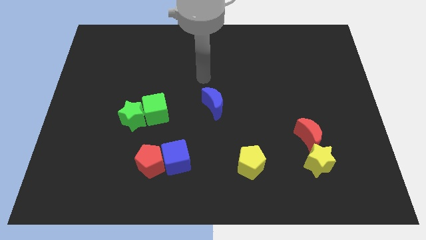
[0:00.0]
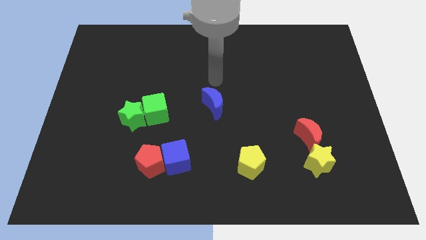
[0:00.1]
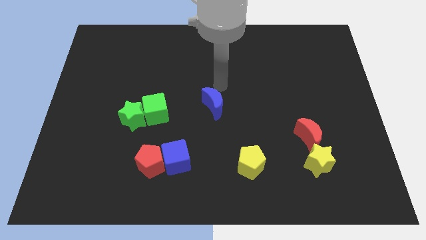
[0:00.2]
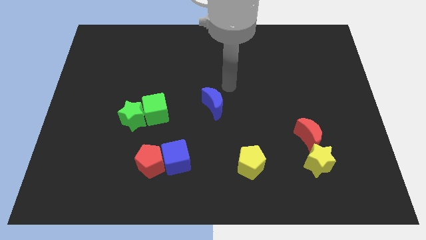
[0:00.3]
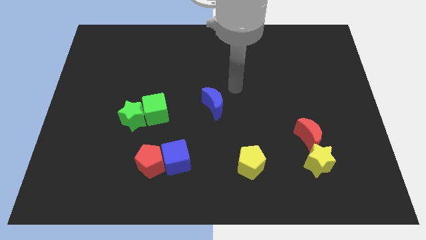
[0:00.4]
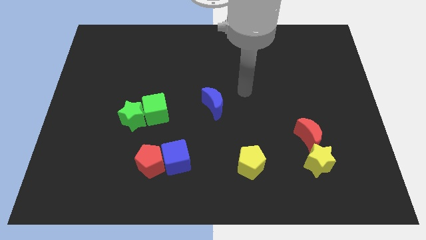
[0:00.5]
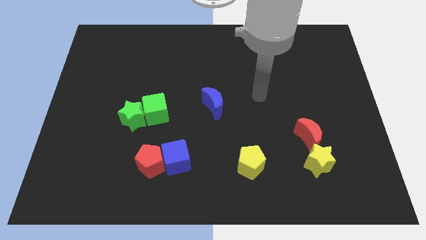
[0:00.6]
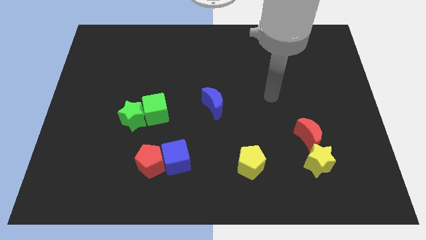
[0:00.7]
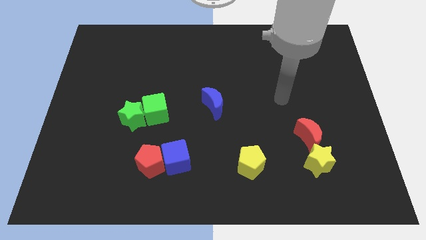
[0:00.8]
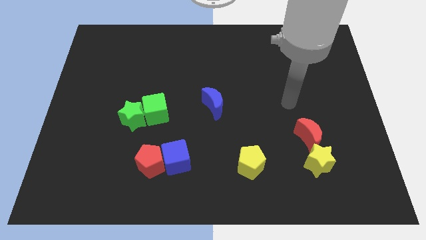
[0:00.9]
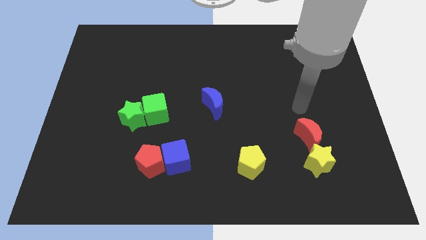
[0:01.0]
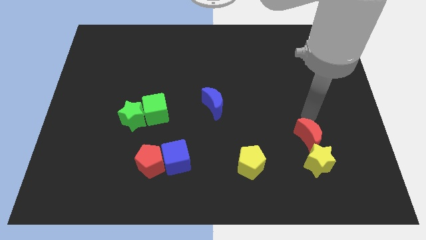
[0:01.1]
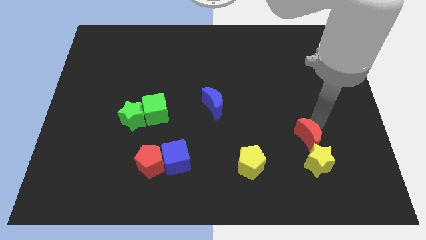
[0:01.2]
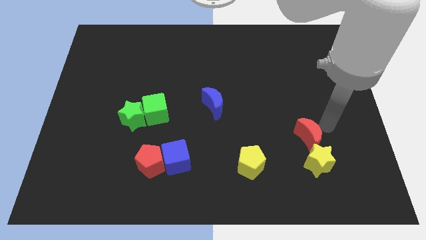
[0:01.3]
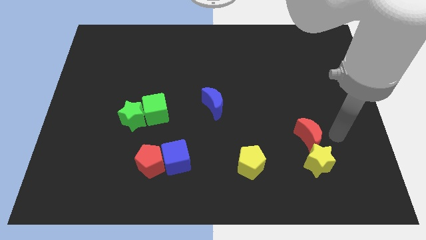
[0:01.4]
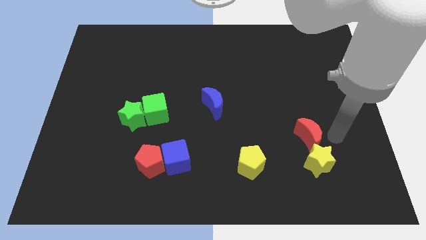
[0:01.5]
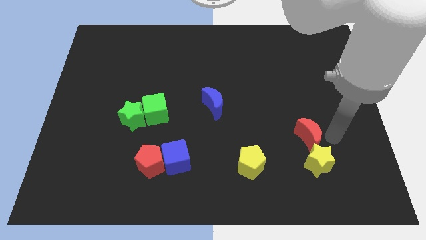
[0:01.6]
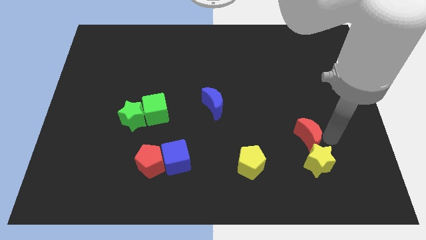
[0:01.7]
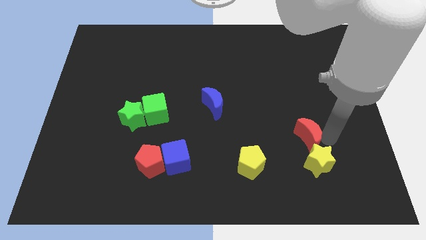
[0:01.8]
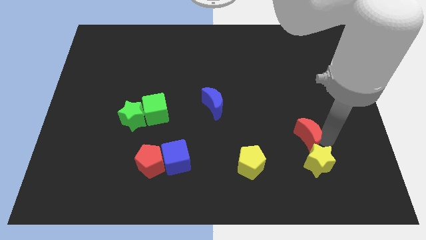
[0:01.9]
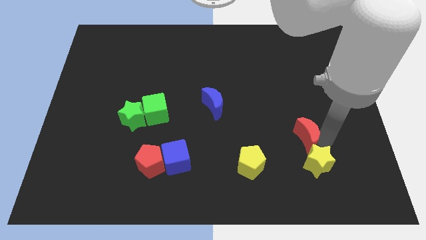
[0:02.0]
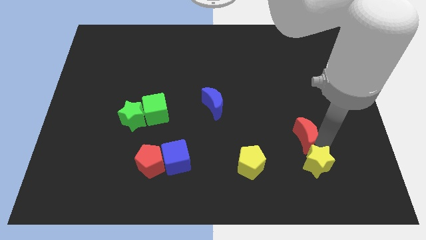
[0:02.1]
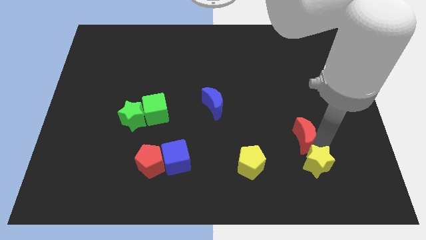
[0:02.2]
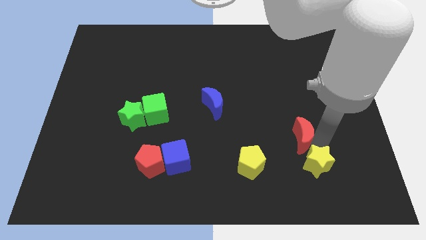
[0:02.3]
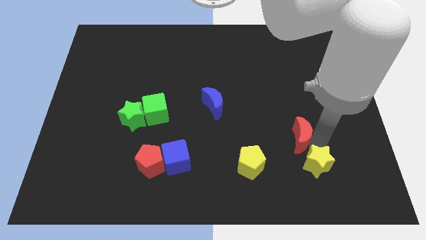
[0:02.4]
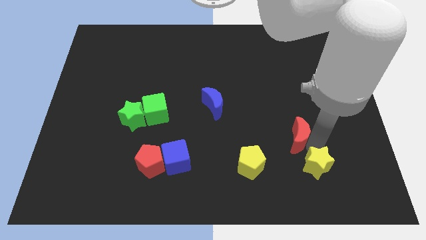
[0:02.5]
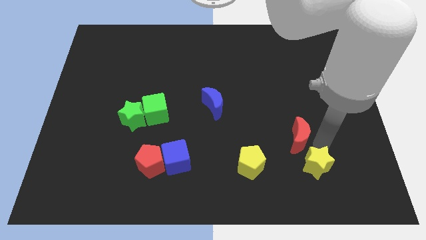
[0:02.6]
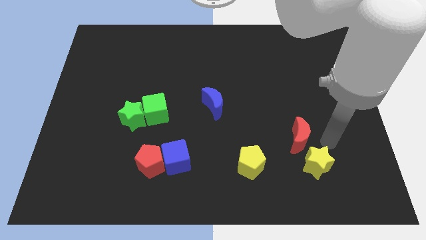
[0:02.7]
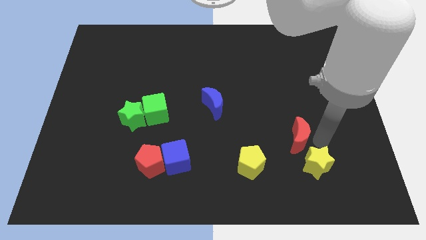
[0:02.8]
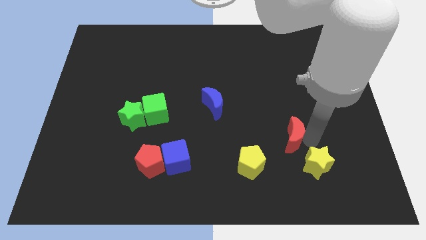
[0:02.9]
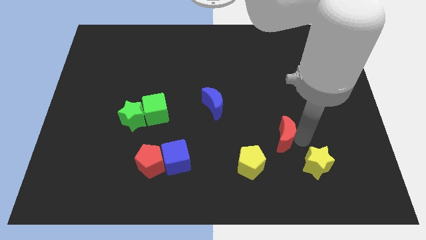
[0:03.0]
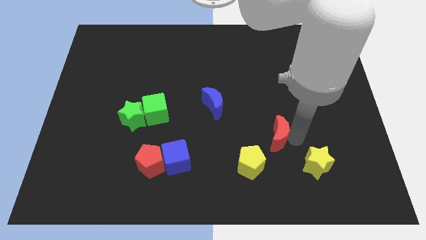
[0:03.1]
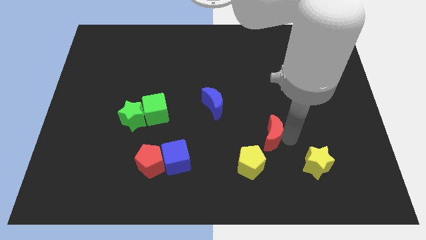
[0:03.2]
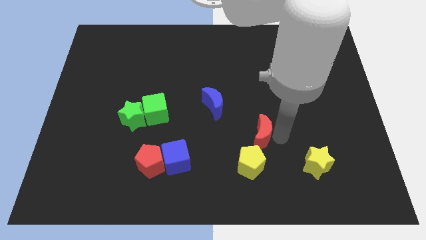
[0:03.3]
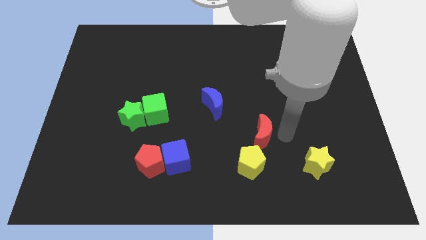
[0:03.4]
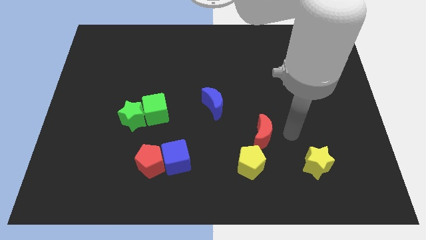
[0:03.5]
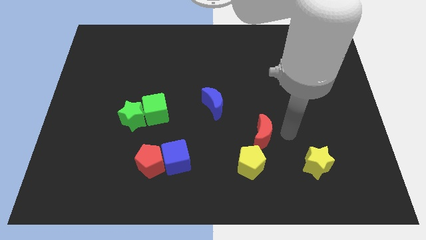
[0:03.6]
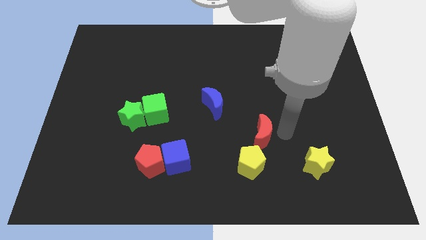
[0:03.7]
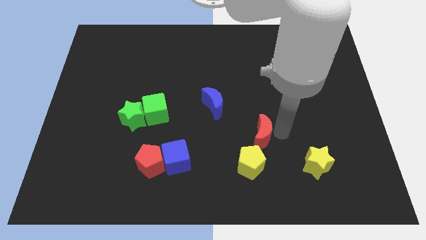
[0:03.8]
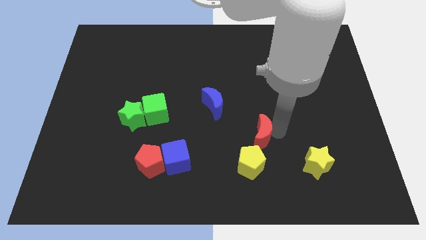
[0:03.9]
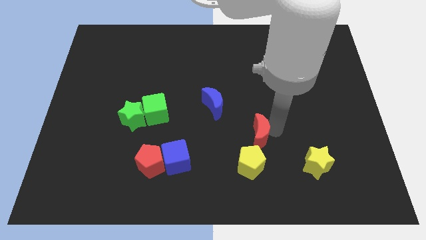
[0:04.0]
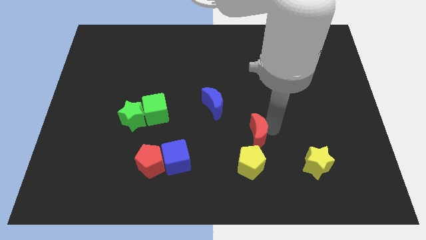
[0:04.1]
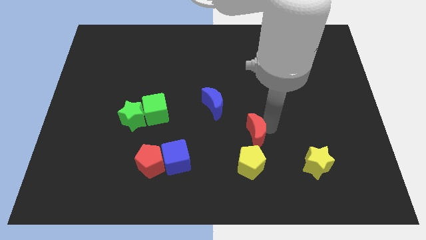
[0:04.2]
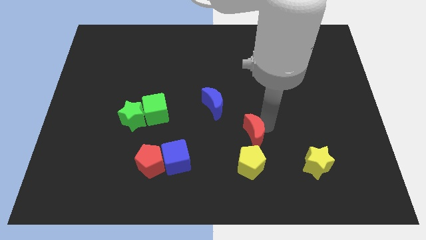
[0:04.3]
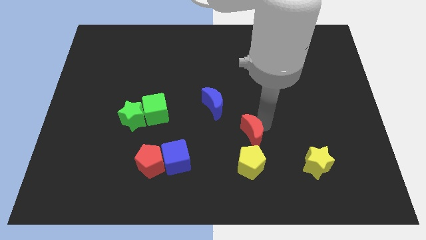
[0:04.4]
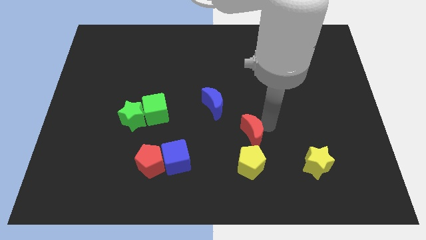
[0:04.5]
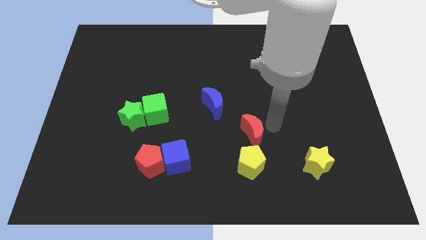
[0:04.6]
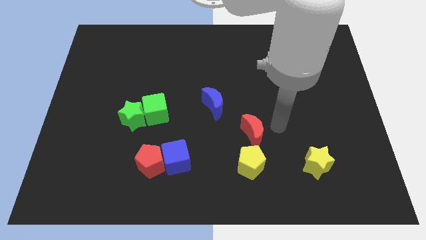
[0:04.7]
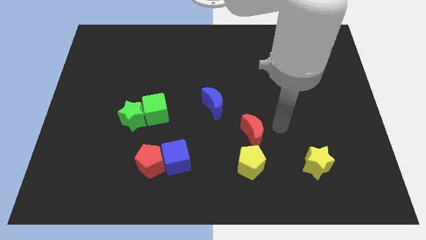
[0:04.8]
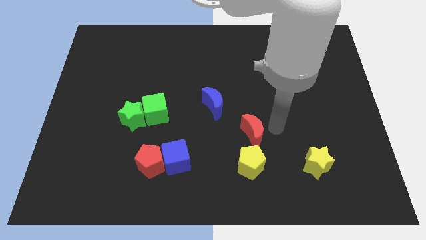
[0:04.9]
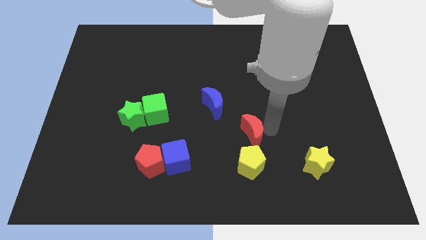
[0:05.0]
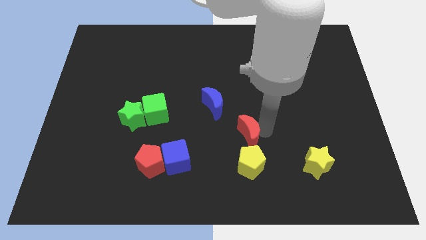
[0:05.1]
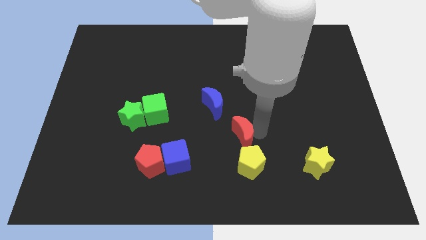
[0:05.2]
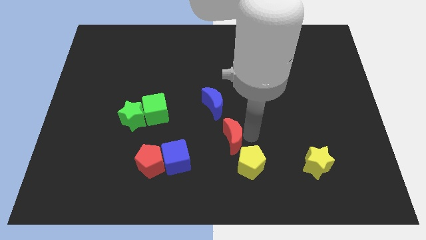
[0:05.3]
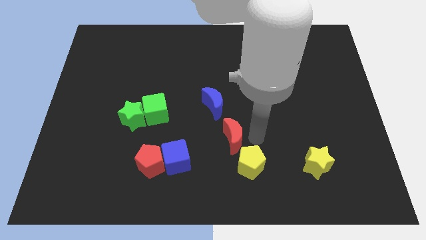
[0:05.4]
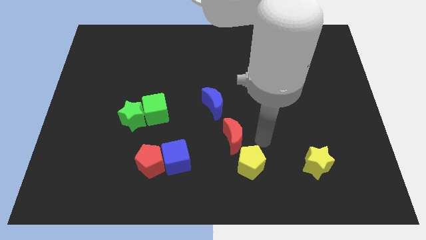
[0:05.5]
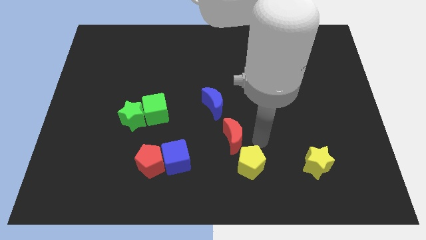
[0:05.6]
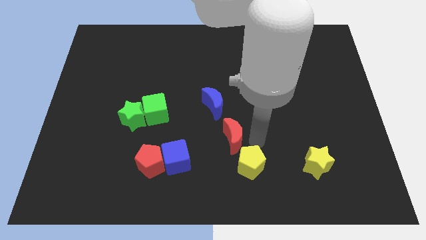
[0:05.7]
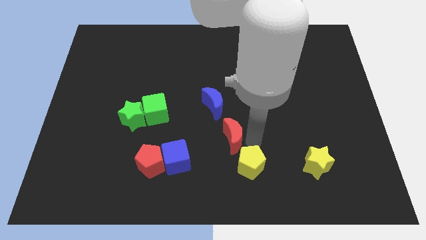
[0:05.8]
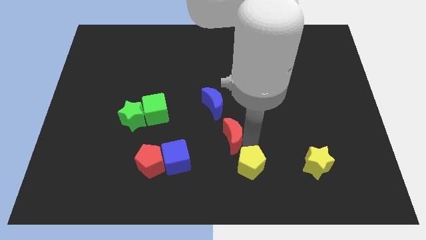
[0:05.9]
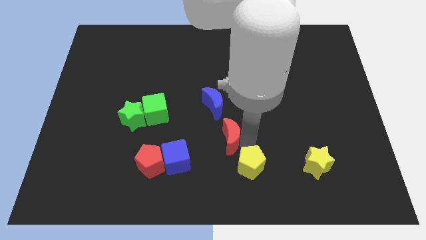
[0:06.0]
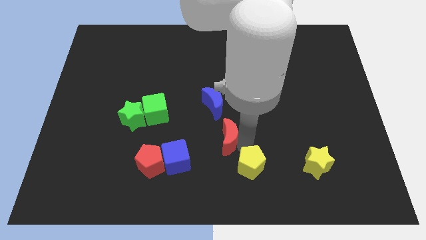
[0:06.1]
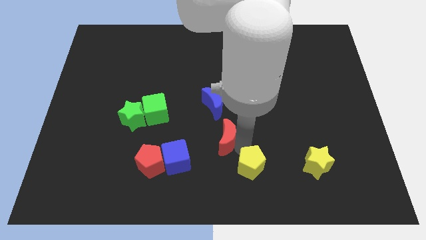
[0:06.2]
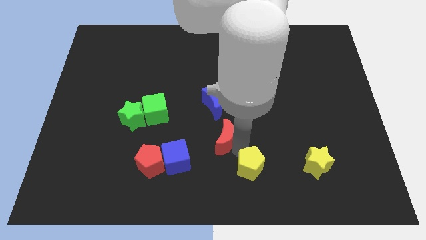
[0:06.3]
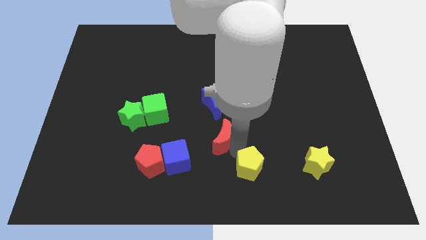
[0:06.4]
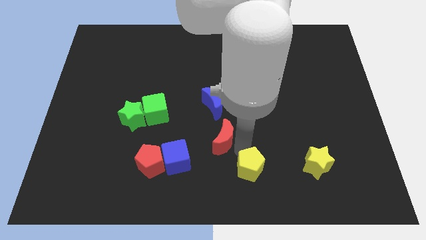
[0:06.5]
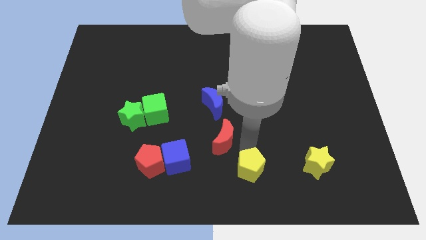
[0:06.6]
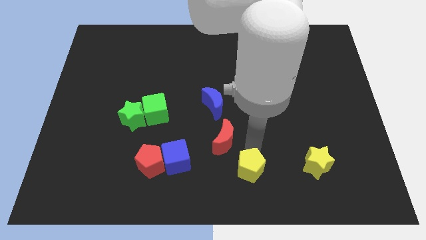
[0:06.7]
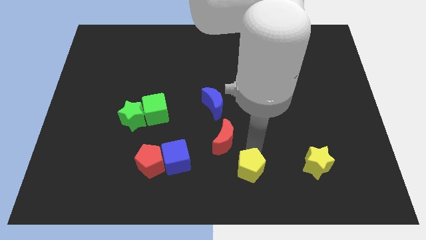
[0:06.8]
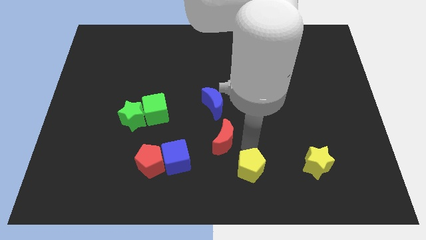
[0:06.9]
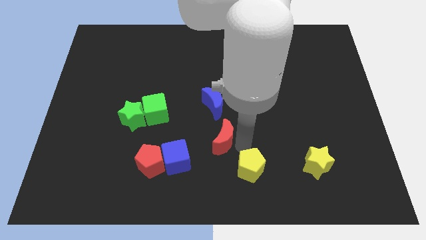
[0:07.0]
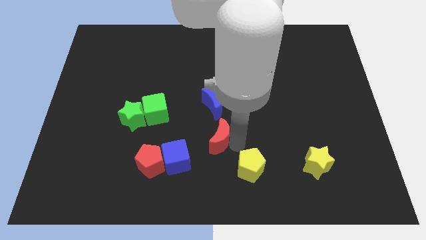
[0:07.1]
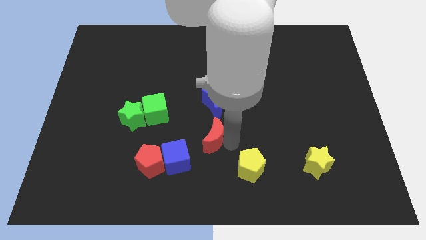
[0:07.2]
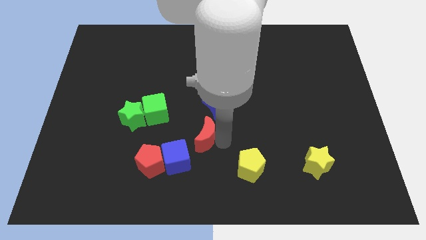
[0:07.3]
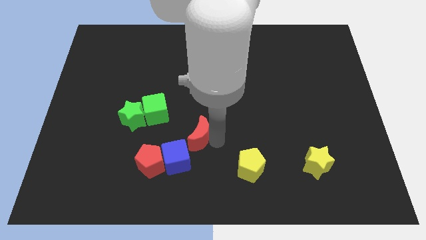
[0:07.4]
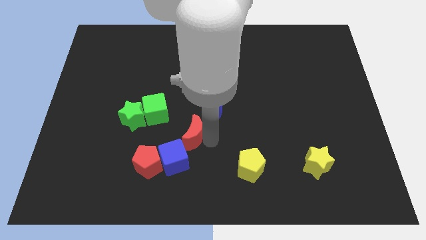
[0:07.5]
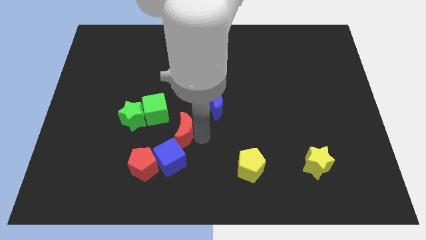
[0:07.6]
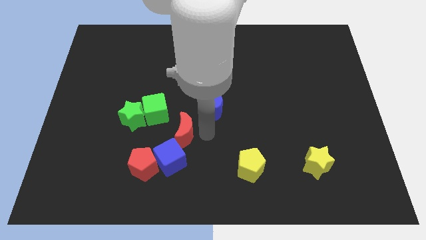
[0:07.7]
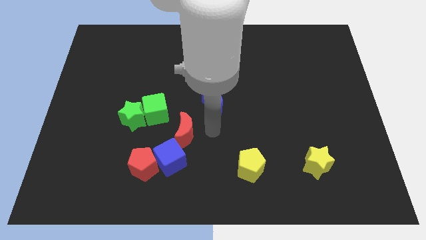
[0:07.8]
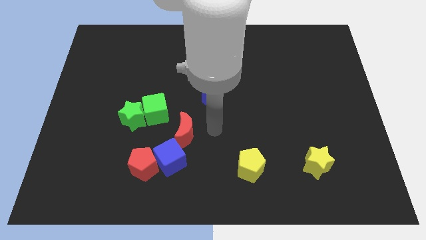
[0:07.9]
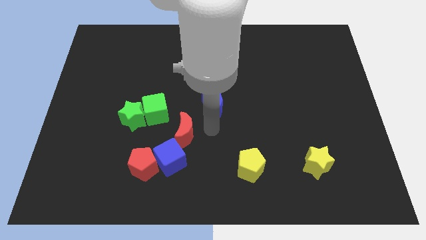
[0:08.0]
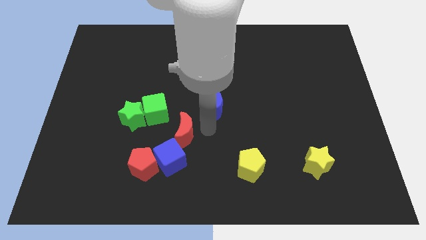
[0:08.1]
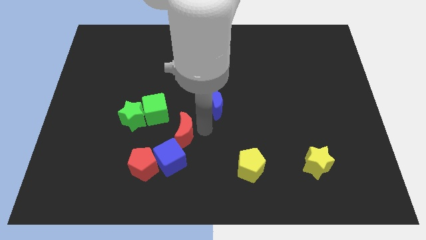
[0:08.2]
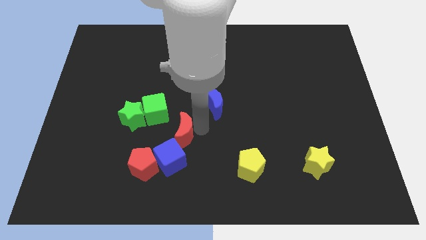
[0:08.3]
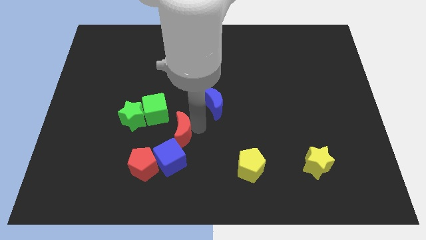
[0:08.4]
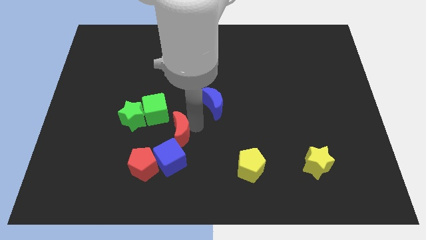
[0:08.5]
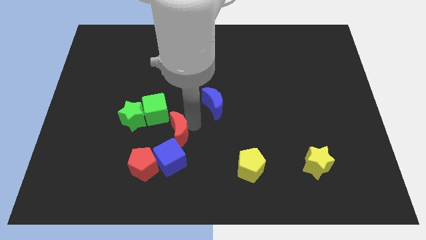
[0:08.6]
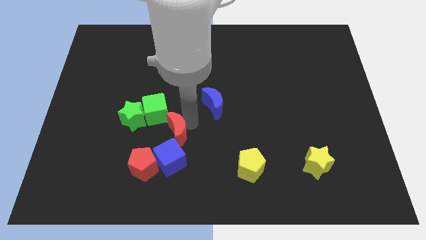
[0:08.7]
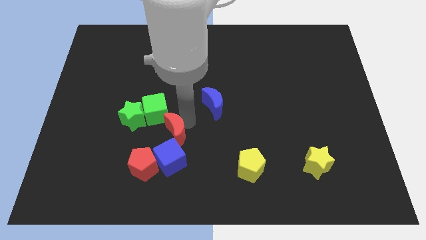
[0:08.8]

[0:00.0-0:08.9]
put the red moon to the bottom right of the green star
